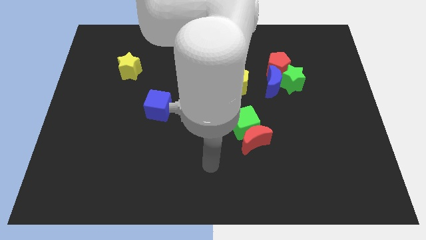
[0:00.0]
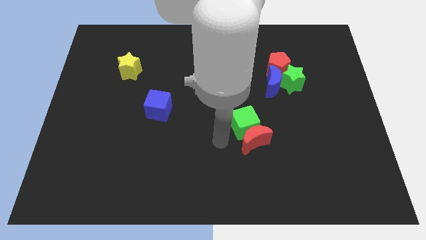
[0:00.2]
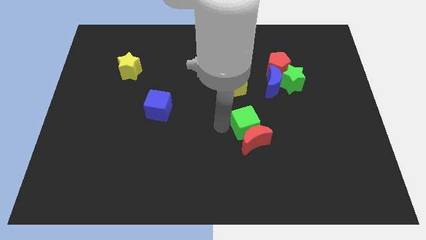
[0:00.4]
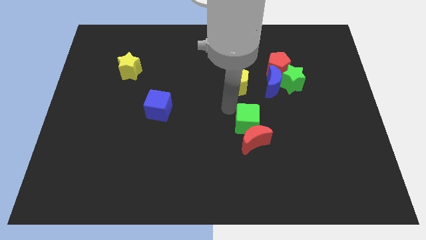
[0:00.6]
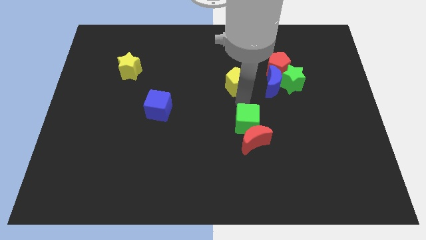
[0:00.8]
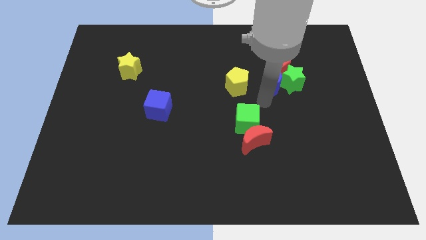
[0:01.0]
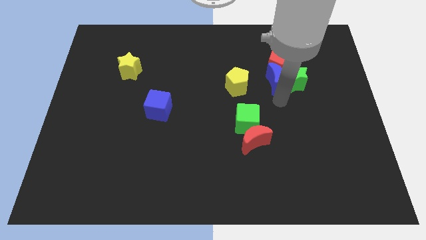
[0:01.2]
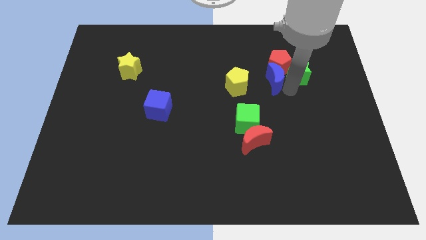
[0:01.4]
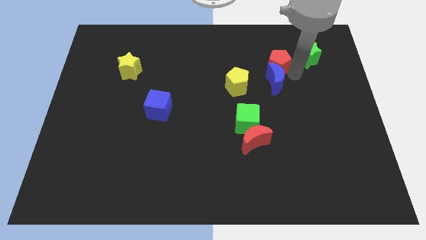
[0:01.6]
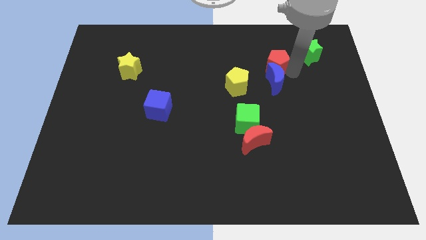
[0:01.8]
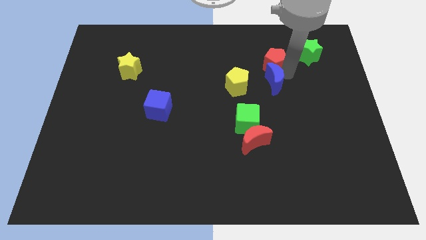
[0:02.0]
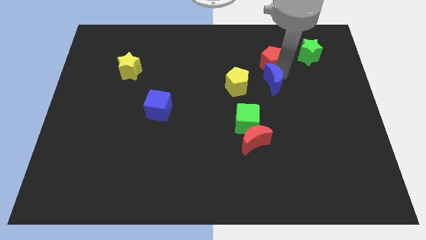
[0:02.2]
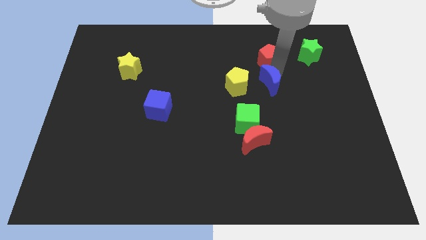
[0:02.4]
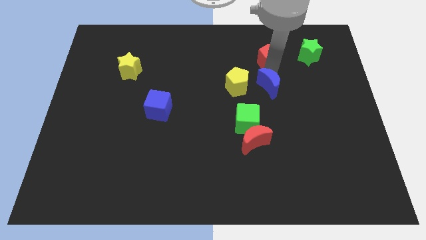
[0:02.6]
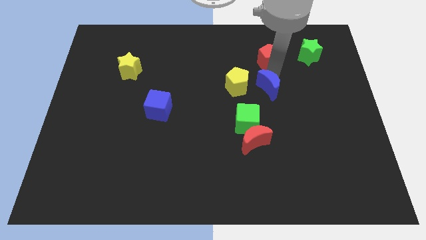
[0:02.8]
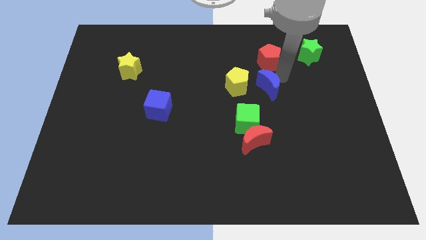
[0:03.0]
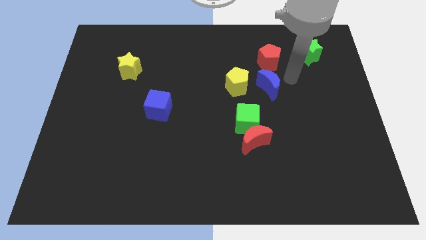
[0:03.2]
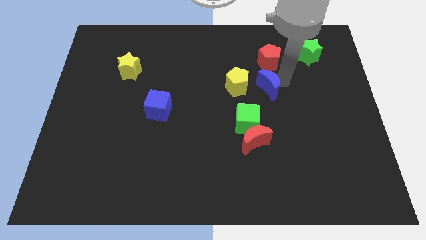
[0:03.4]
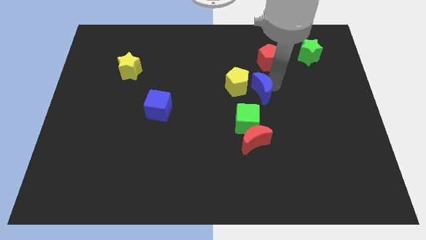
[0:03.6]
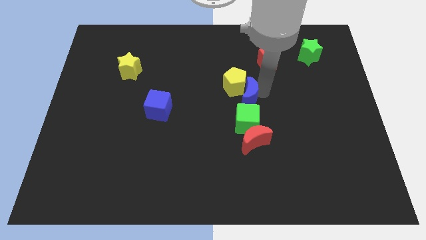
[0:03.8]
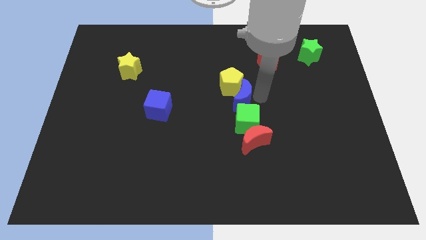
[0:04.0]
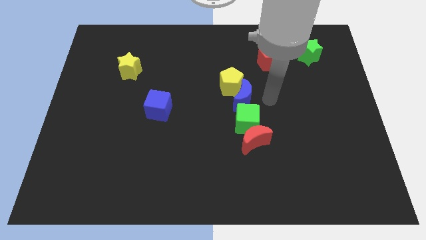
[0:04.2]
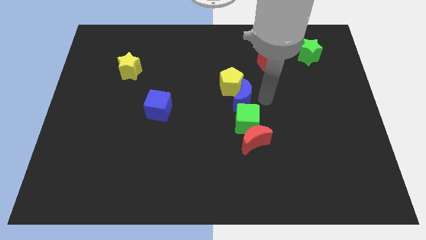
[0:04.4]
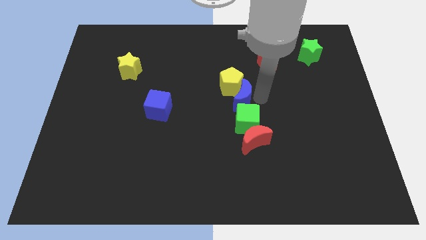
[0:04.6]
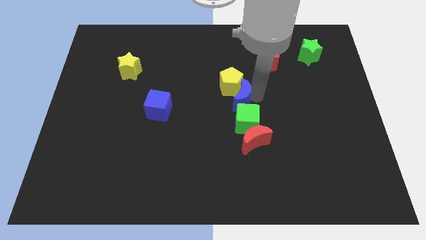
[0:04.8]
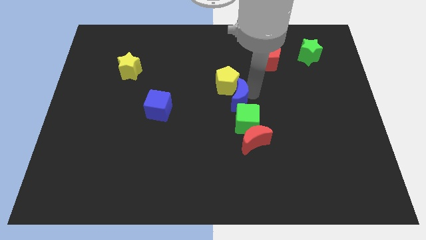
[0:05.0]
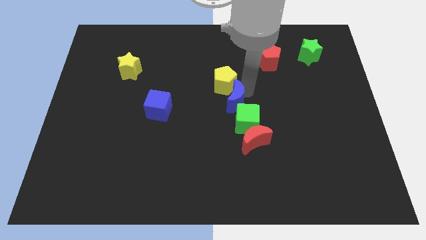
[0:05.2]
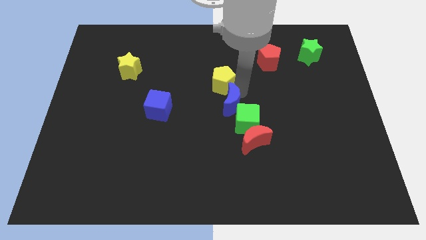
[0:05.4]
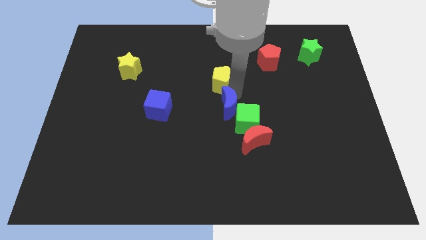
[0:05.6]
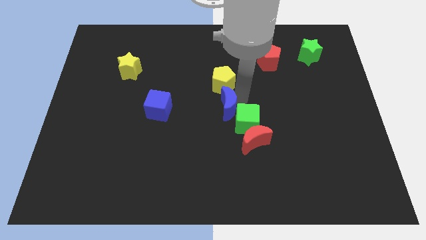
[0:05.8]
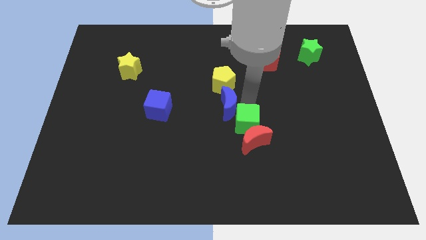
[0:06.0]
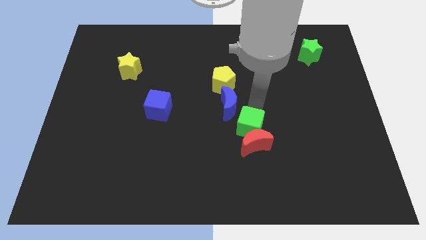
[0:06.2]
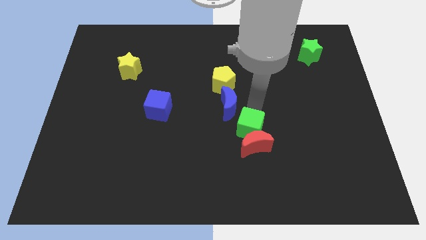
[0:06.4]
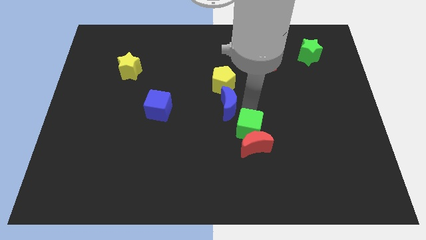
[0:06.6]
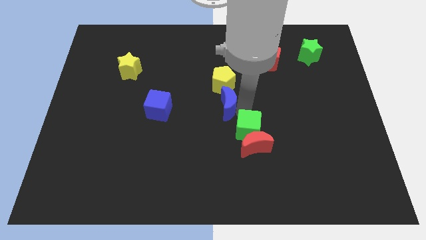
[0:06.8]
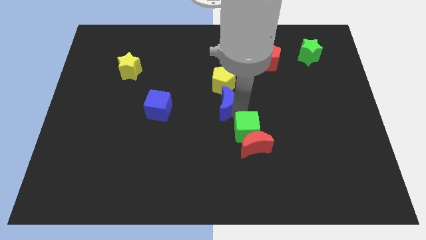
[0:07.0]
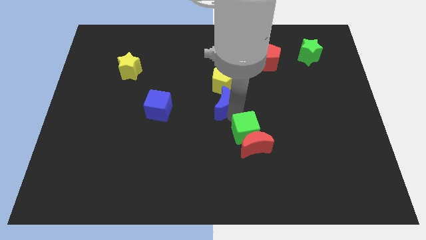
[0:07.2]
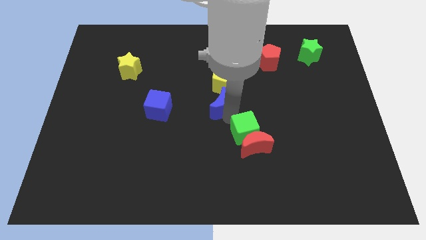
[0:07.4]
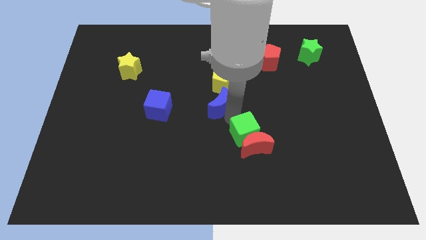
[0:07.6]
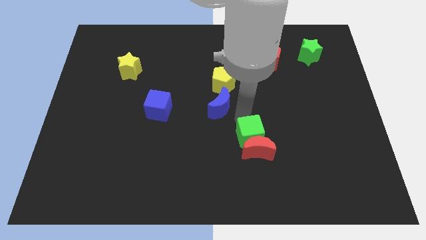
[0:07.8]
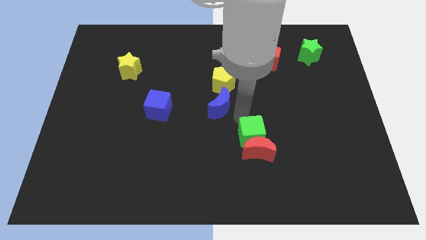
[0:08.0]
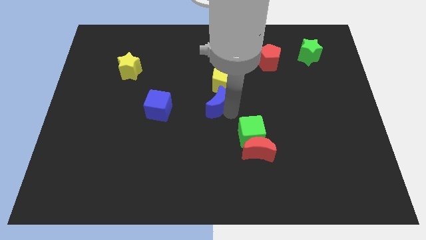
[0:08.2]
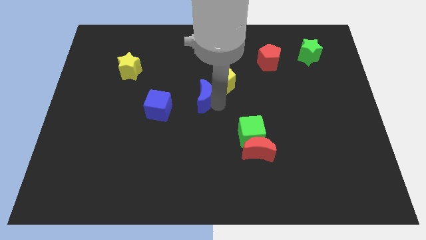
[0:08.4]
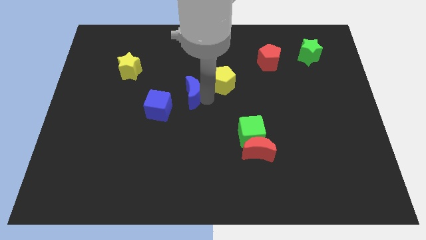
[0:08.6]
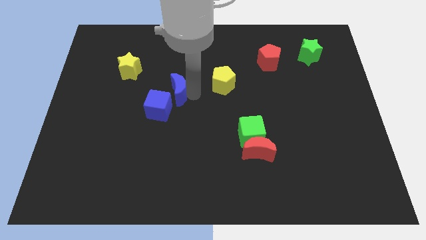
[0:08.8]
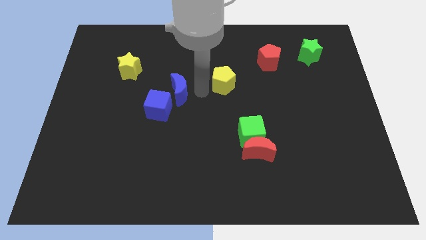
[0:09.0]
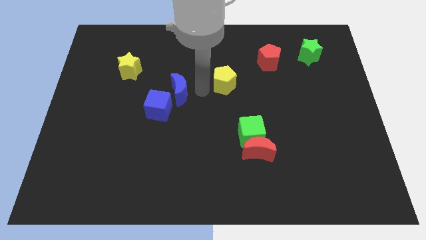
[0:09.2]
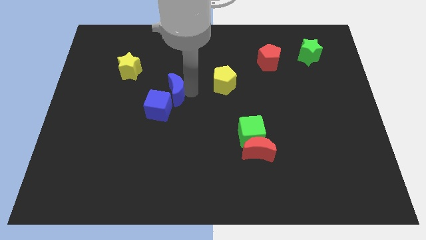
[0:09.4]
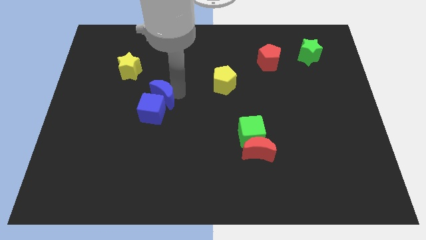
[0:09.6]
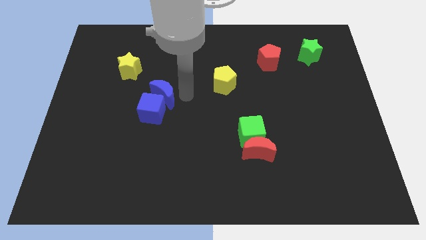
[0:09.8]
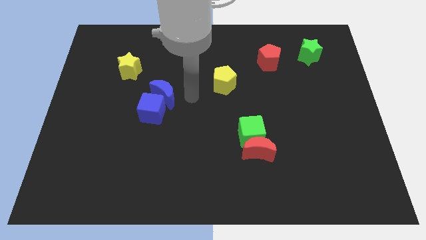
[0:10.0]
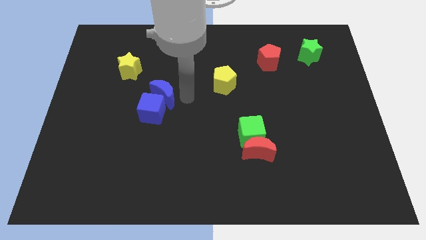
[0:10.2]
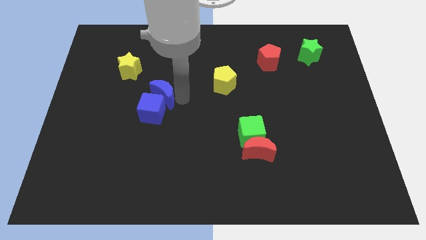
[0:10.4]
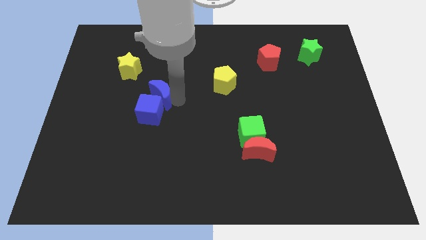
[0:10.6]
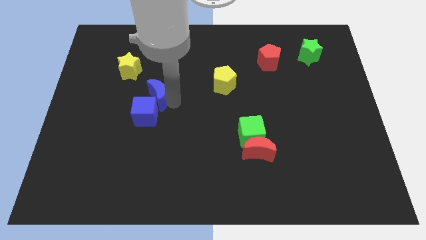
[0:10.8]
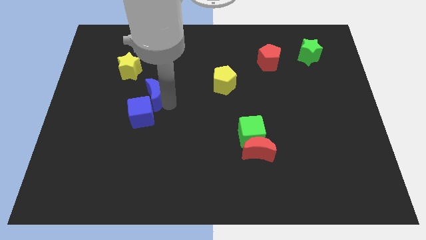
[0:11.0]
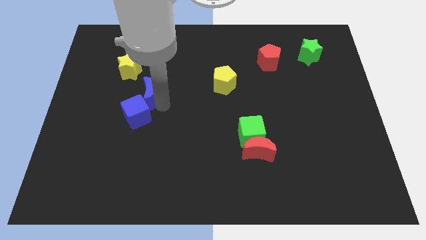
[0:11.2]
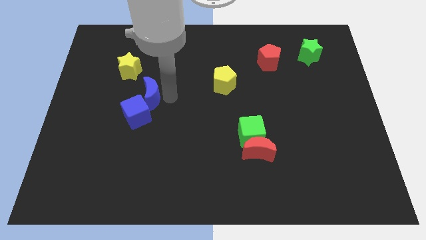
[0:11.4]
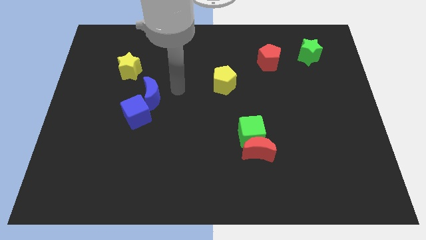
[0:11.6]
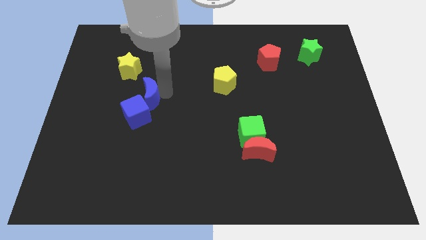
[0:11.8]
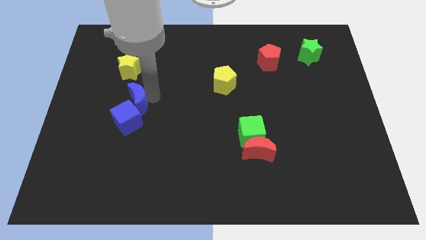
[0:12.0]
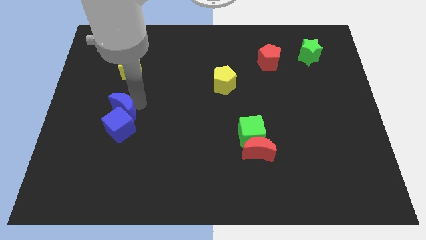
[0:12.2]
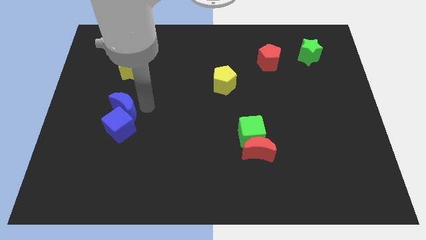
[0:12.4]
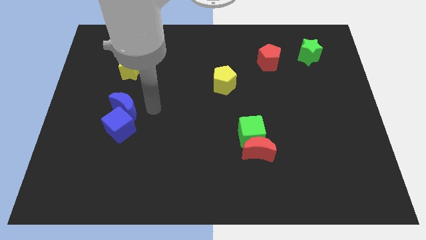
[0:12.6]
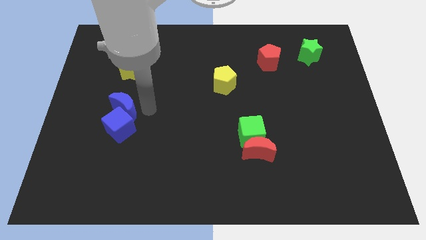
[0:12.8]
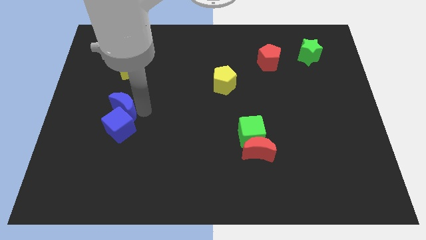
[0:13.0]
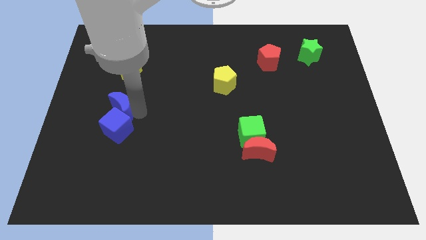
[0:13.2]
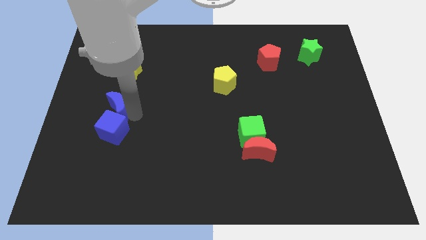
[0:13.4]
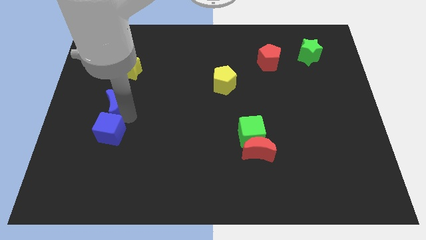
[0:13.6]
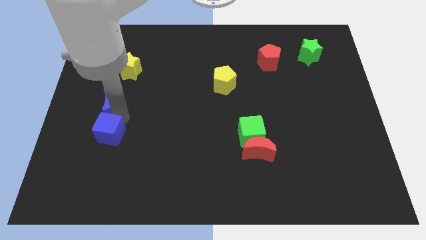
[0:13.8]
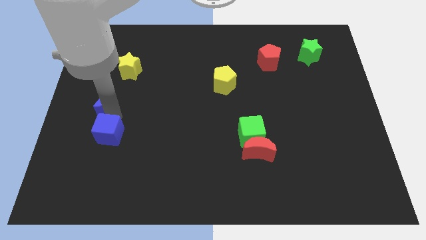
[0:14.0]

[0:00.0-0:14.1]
slide the blue moon to the left side of the board
